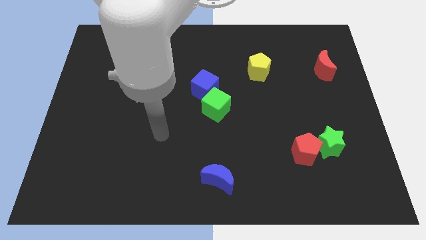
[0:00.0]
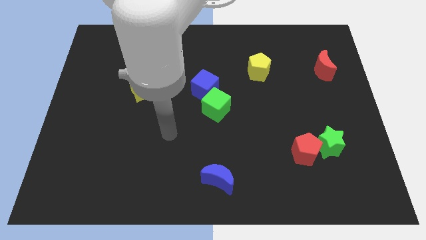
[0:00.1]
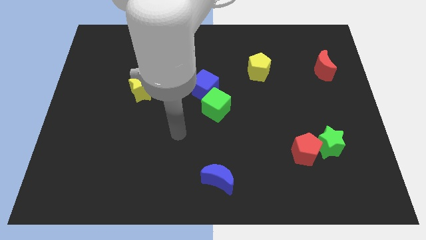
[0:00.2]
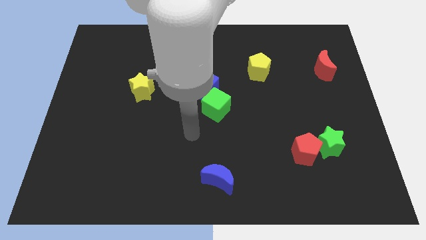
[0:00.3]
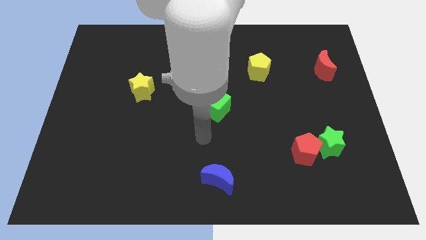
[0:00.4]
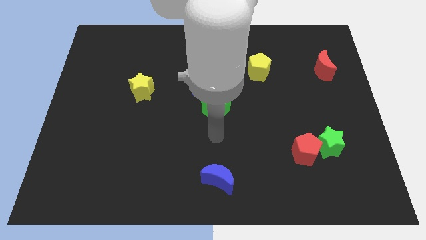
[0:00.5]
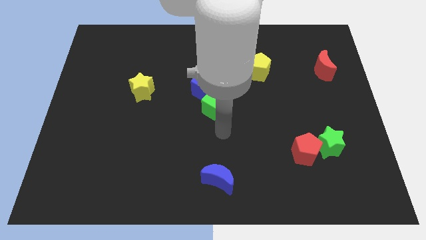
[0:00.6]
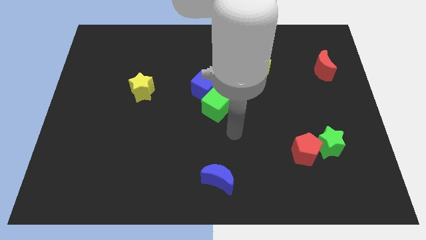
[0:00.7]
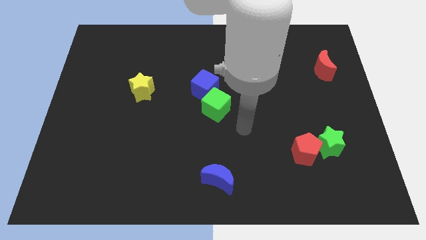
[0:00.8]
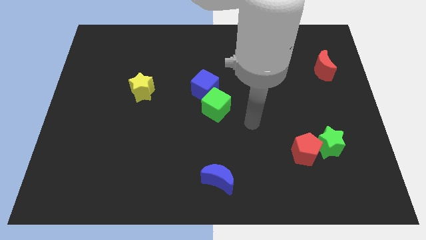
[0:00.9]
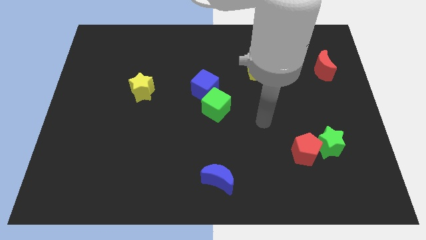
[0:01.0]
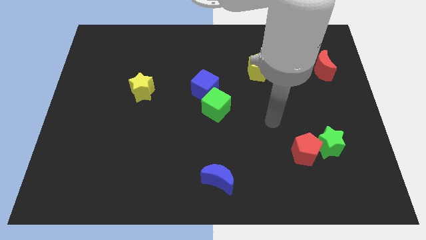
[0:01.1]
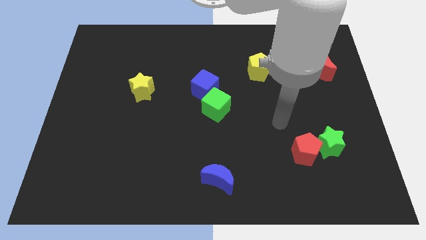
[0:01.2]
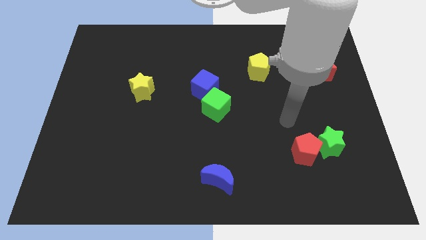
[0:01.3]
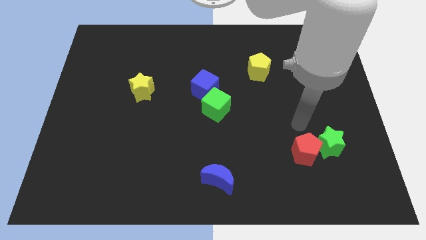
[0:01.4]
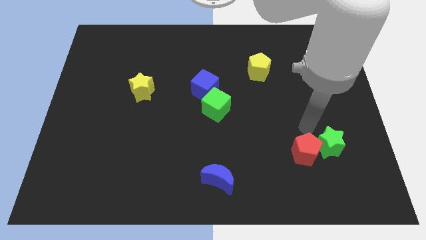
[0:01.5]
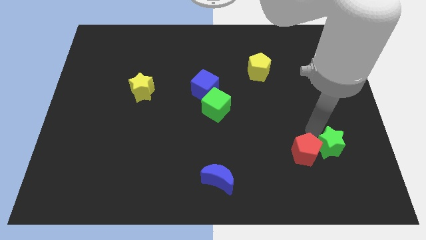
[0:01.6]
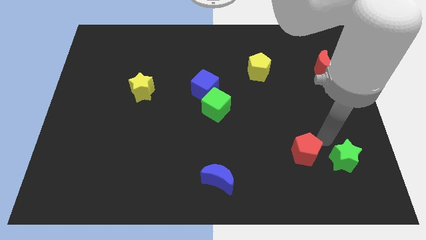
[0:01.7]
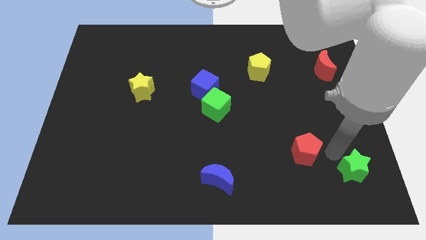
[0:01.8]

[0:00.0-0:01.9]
move the red pentagon away from the green star

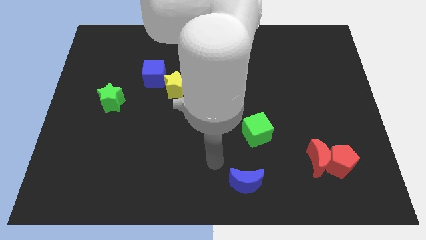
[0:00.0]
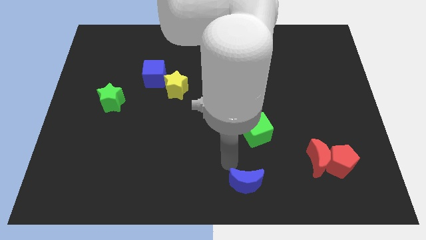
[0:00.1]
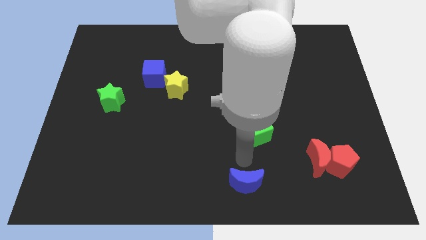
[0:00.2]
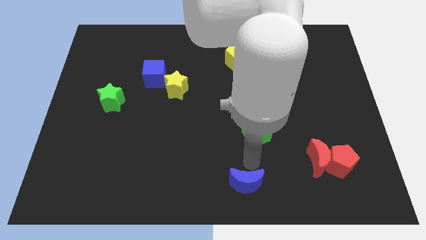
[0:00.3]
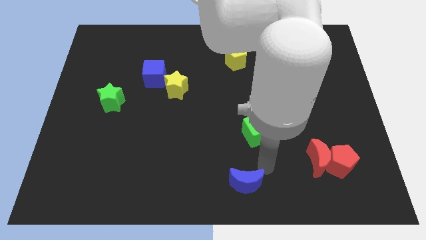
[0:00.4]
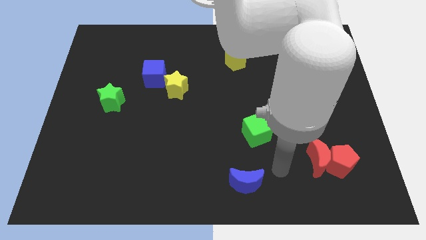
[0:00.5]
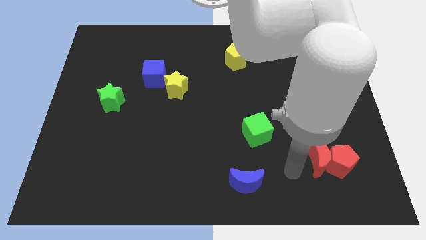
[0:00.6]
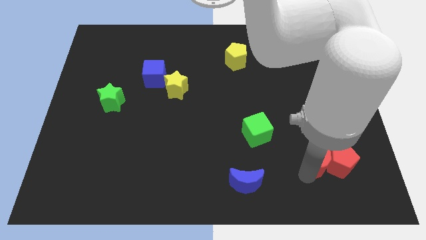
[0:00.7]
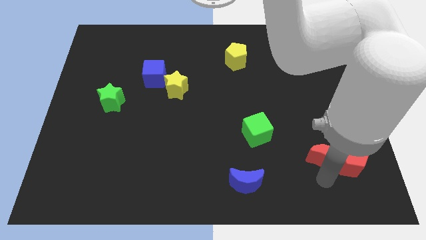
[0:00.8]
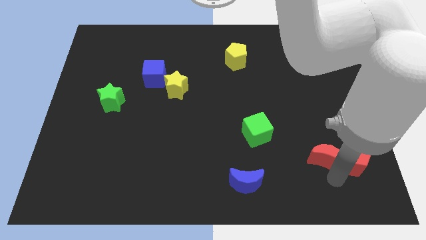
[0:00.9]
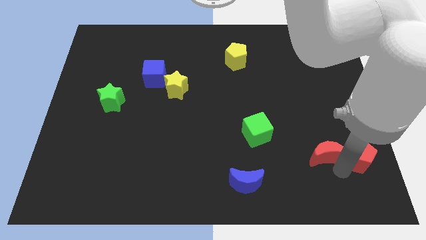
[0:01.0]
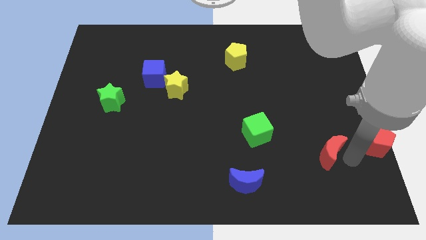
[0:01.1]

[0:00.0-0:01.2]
move the red moon away from the red pentagon

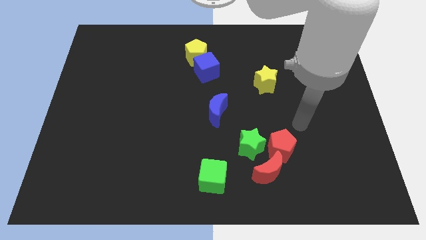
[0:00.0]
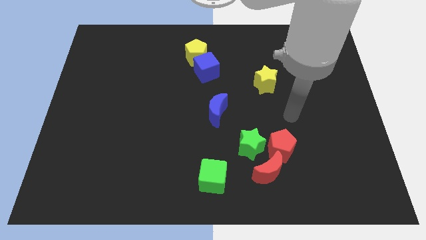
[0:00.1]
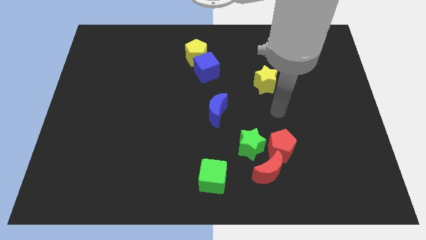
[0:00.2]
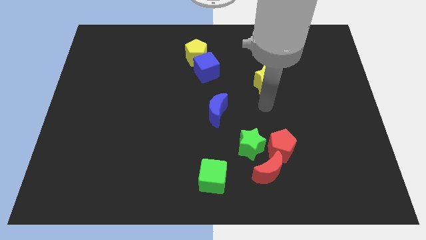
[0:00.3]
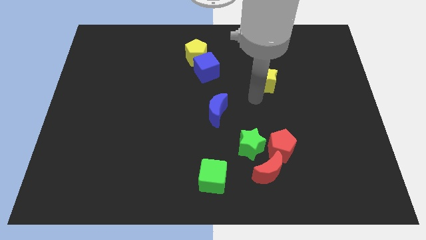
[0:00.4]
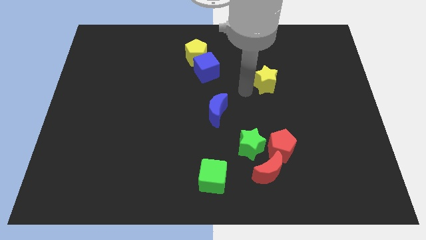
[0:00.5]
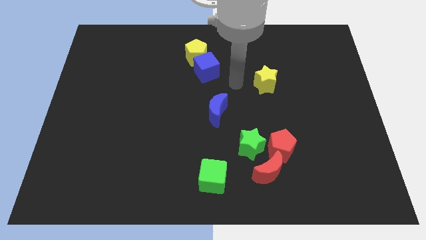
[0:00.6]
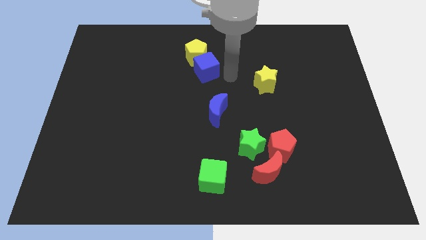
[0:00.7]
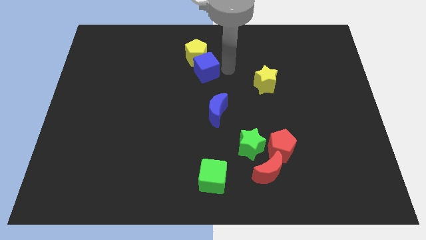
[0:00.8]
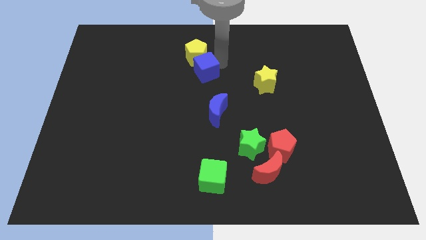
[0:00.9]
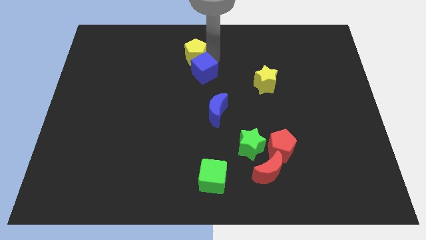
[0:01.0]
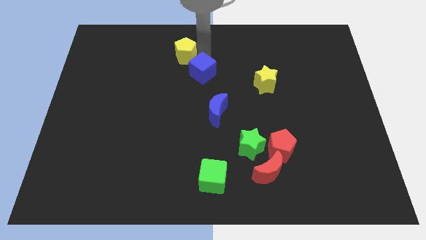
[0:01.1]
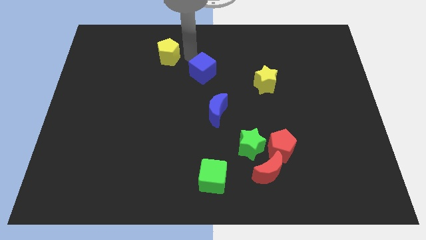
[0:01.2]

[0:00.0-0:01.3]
move the blue cube away from the yellow pentagon

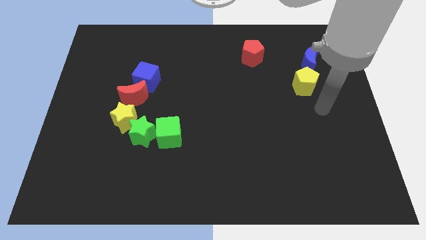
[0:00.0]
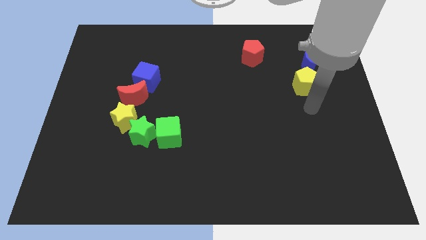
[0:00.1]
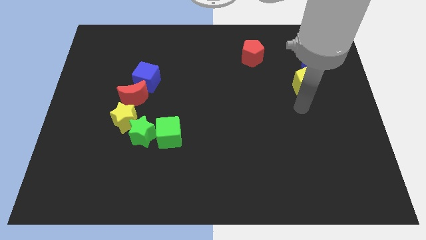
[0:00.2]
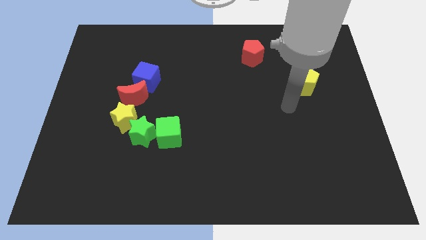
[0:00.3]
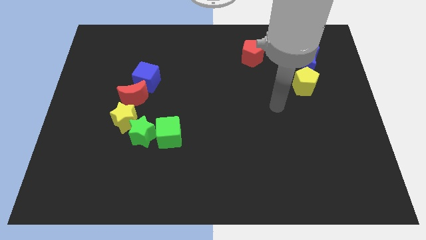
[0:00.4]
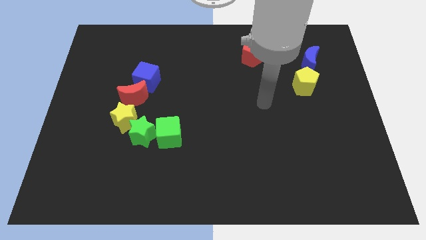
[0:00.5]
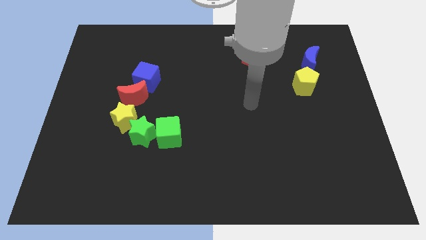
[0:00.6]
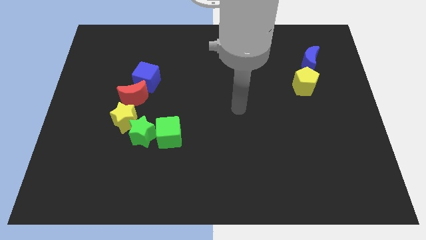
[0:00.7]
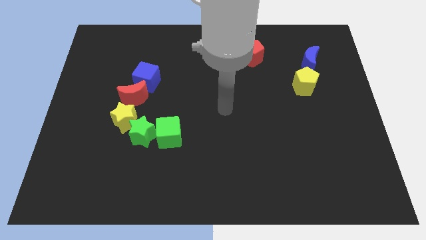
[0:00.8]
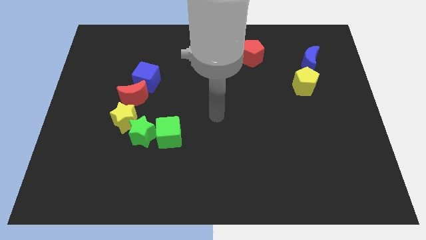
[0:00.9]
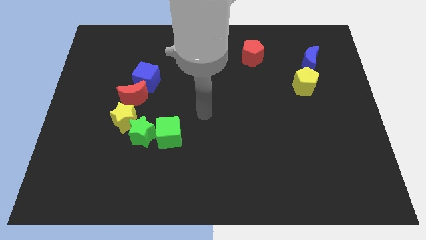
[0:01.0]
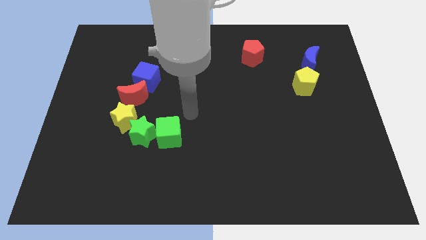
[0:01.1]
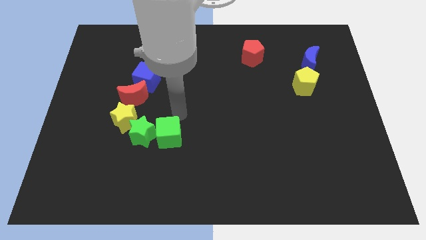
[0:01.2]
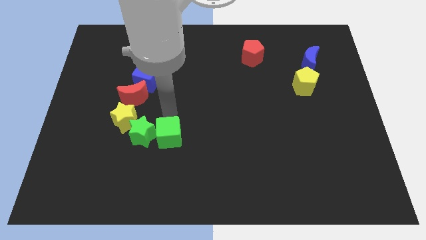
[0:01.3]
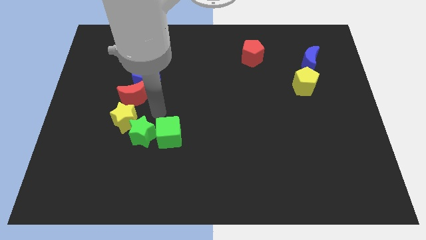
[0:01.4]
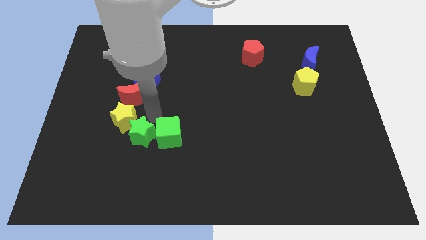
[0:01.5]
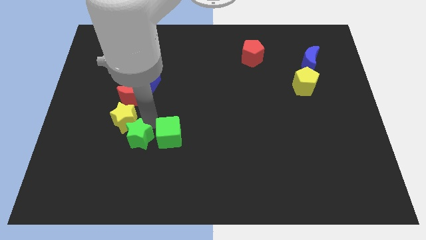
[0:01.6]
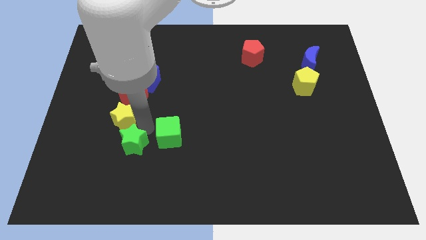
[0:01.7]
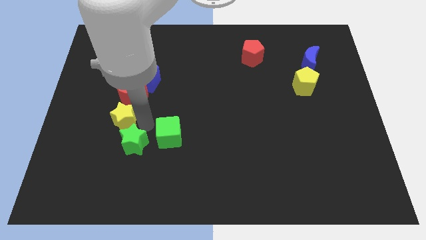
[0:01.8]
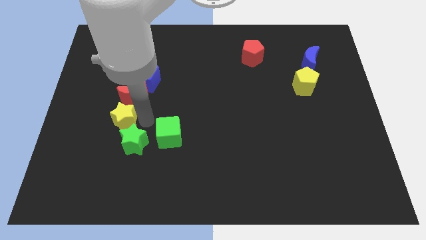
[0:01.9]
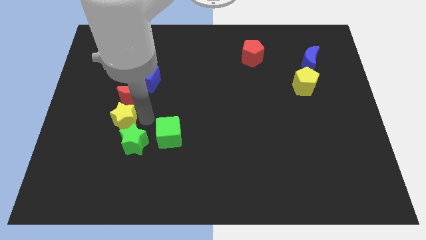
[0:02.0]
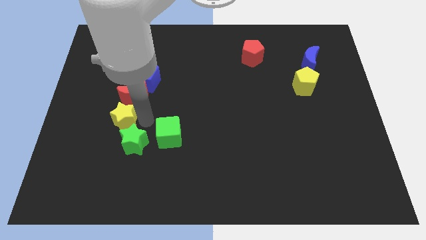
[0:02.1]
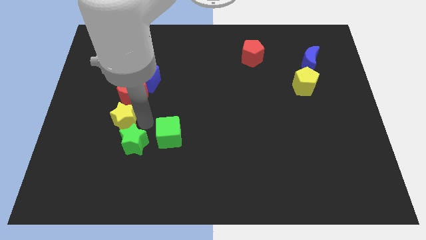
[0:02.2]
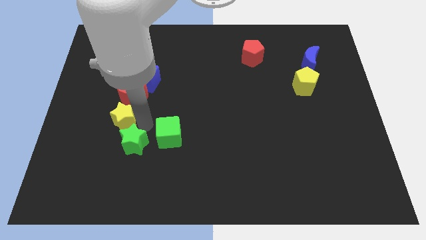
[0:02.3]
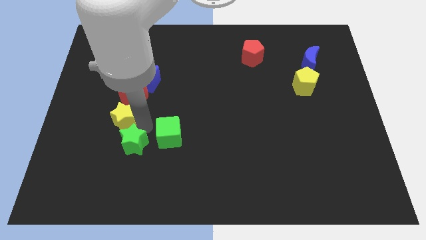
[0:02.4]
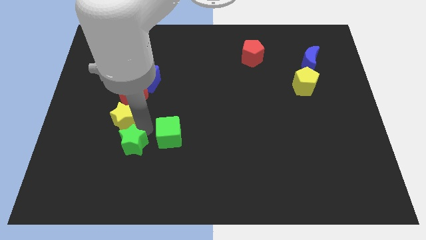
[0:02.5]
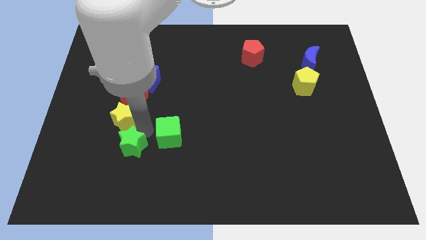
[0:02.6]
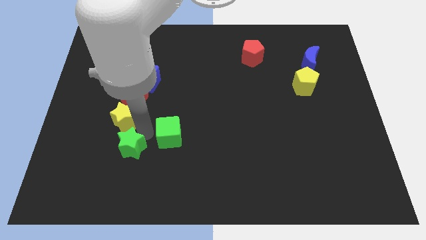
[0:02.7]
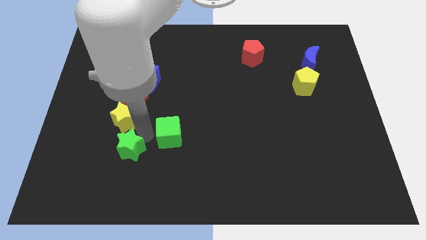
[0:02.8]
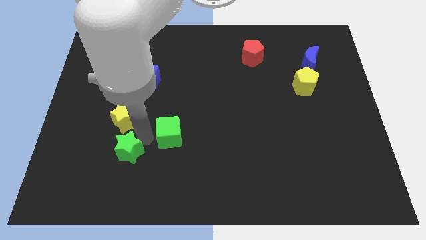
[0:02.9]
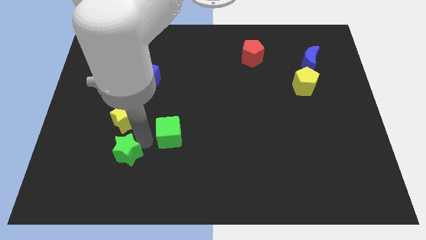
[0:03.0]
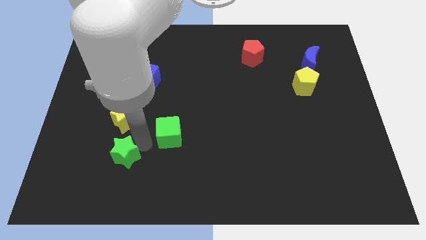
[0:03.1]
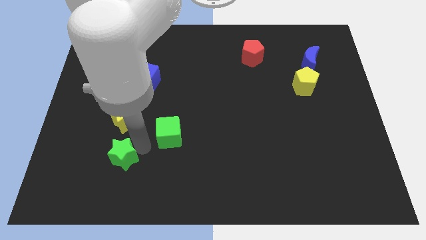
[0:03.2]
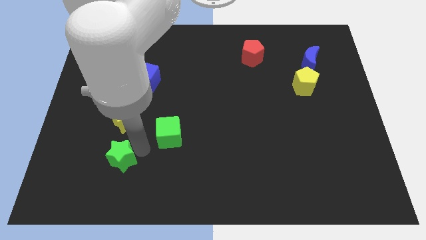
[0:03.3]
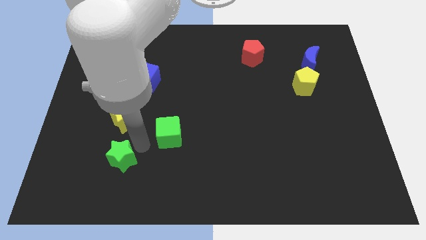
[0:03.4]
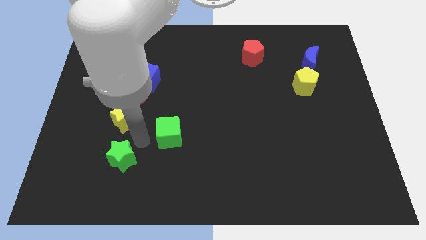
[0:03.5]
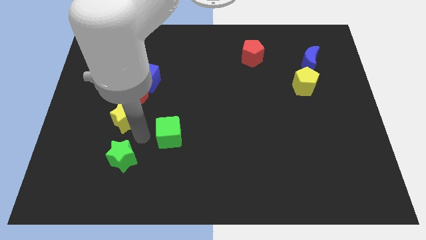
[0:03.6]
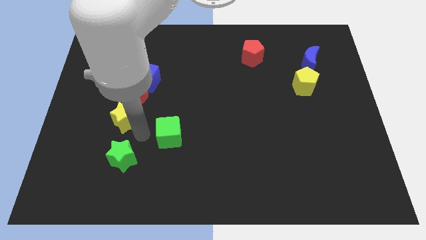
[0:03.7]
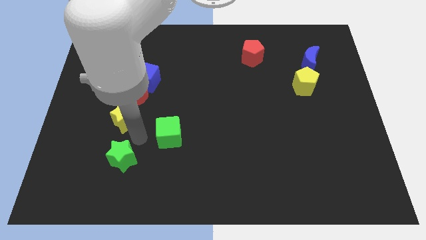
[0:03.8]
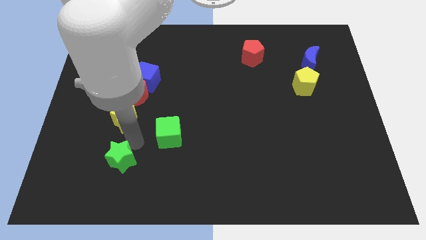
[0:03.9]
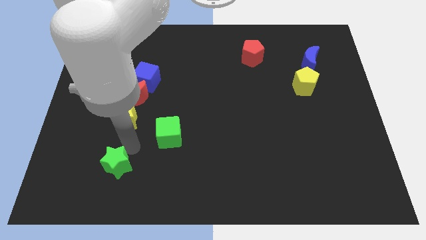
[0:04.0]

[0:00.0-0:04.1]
move the green star away from the yellow star and green cube

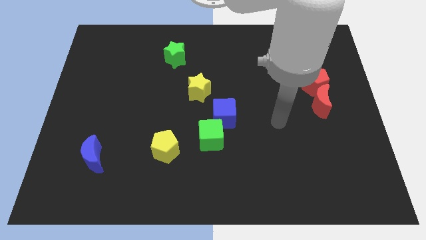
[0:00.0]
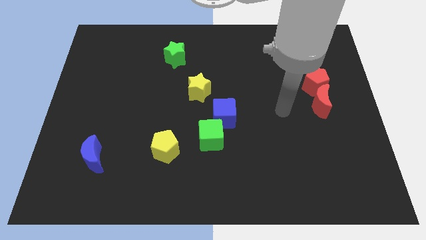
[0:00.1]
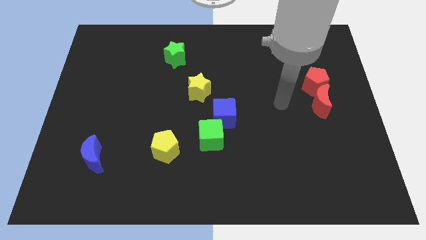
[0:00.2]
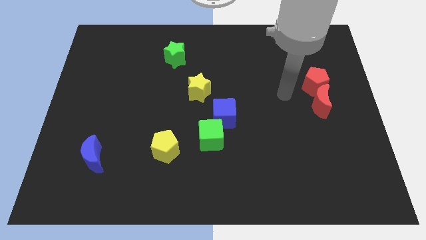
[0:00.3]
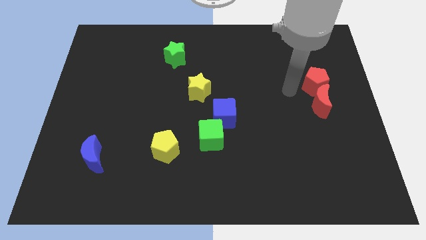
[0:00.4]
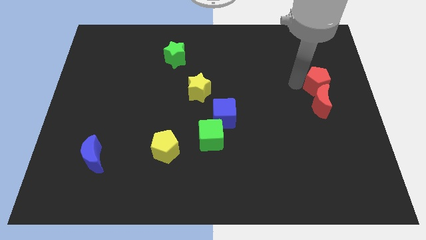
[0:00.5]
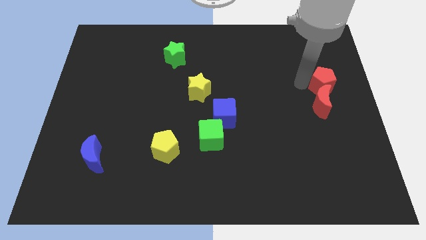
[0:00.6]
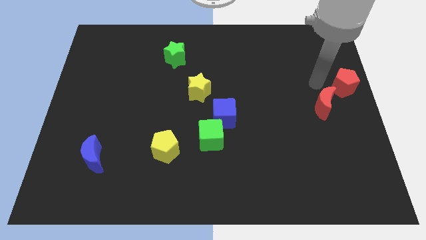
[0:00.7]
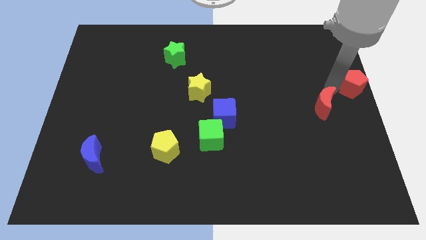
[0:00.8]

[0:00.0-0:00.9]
pull the red moon apart from the red pentagon
